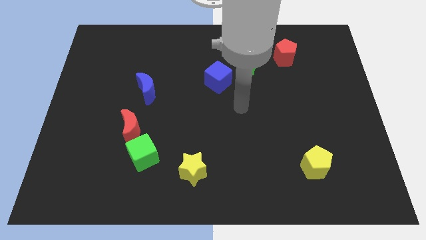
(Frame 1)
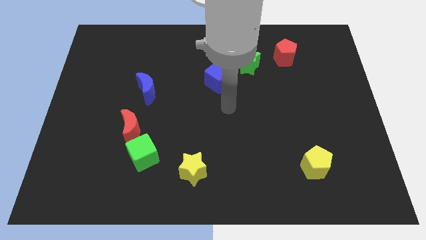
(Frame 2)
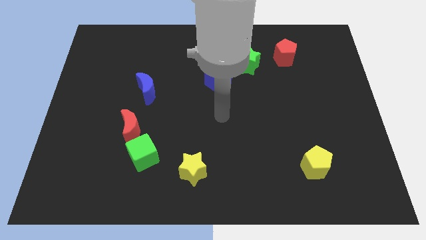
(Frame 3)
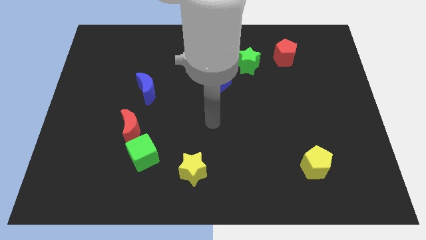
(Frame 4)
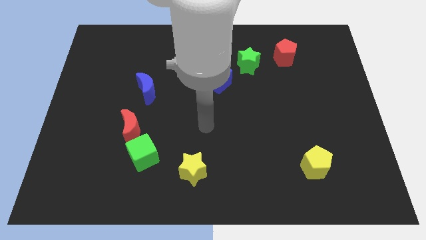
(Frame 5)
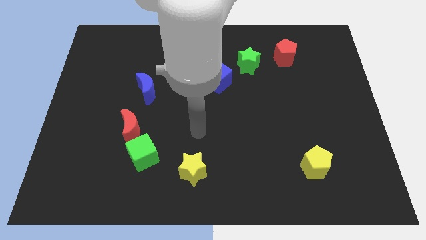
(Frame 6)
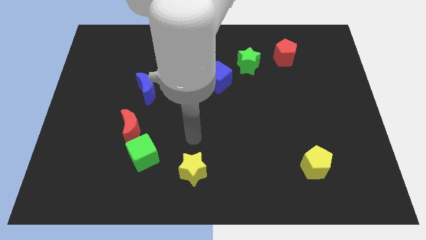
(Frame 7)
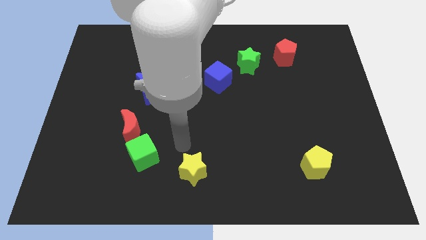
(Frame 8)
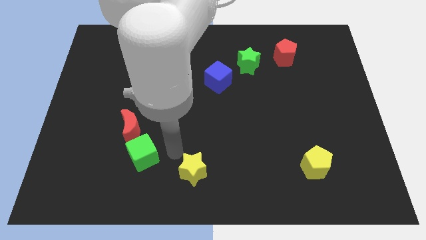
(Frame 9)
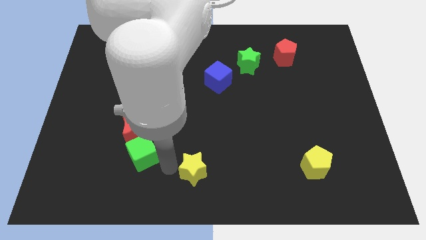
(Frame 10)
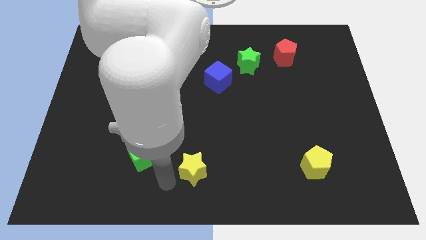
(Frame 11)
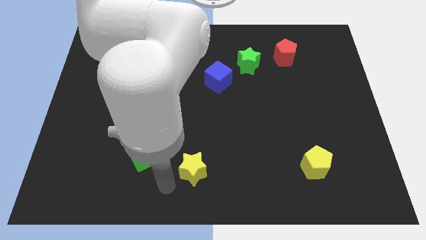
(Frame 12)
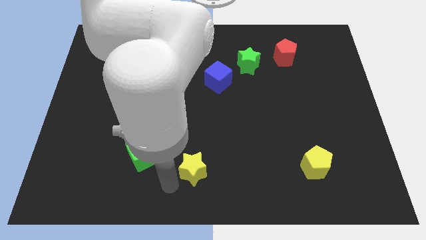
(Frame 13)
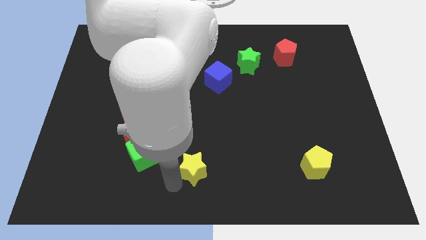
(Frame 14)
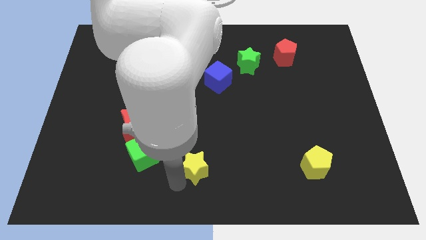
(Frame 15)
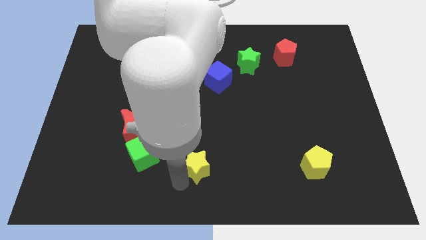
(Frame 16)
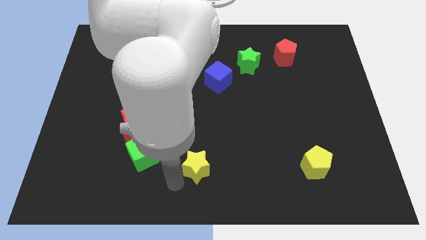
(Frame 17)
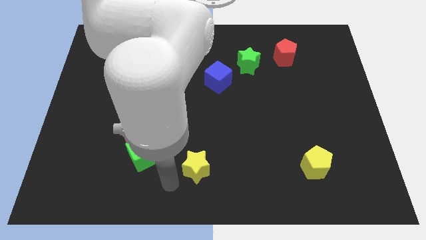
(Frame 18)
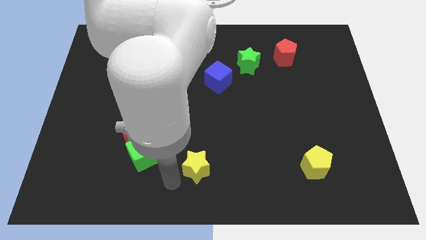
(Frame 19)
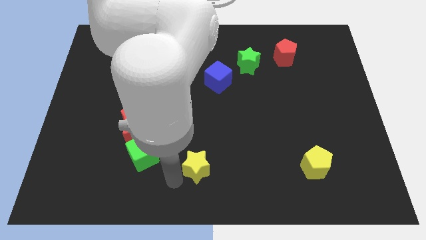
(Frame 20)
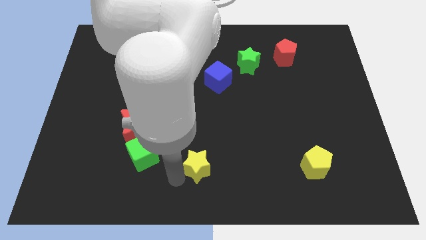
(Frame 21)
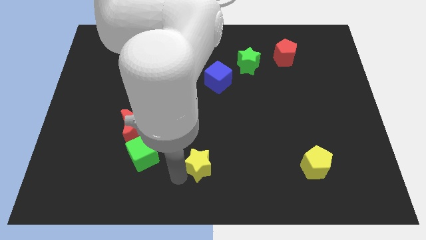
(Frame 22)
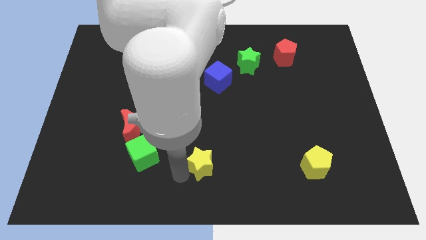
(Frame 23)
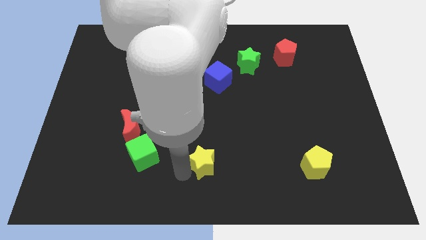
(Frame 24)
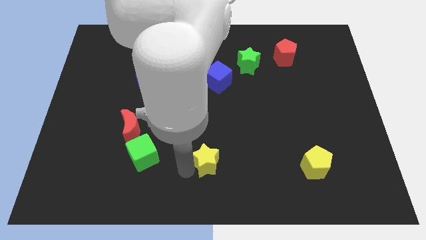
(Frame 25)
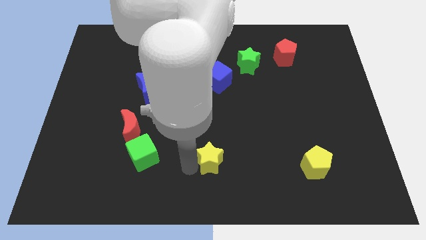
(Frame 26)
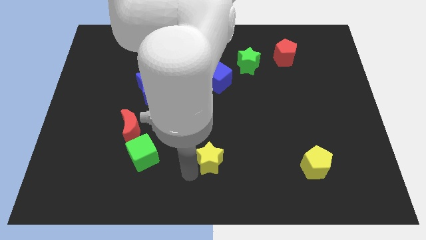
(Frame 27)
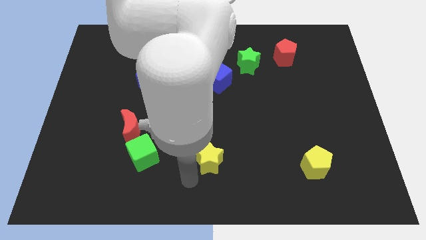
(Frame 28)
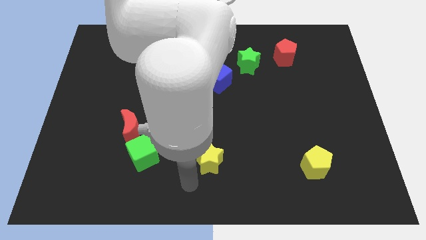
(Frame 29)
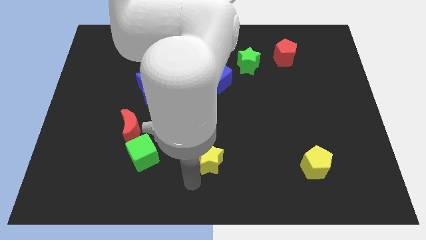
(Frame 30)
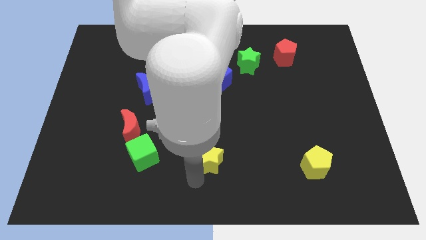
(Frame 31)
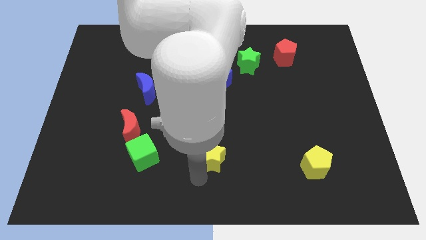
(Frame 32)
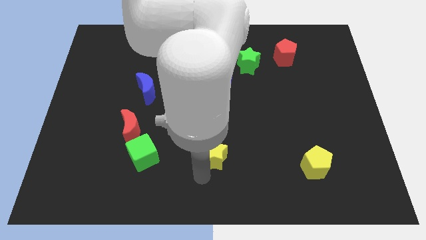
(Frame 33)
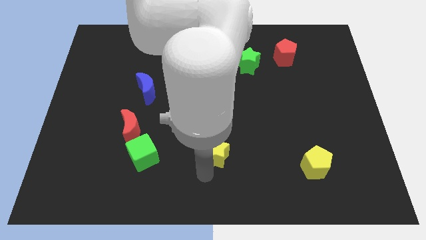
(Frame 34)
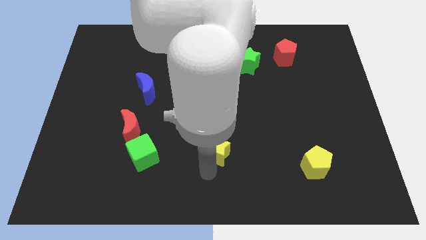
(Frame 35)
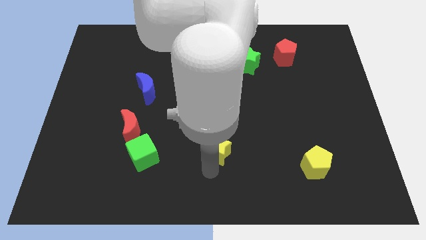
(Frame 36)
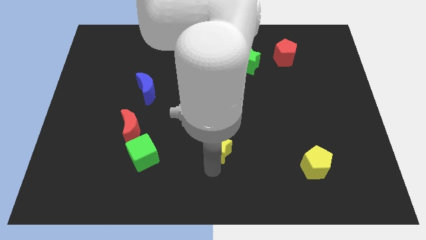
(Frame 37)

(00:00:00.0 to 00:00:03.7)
push the yellow star upwards and then right a little

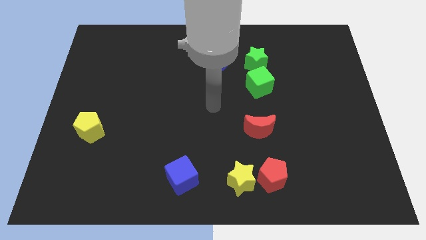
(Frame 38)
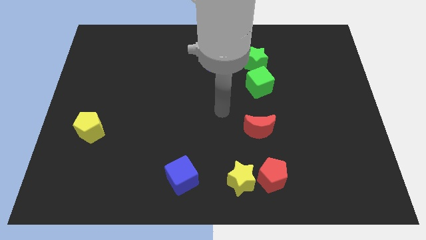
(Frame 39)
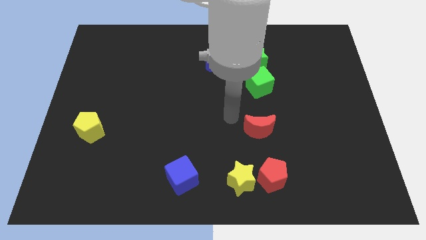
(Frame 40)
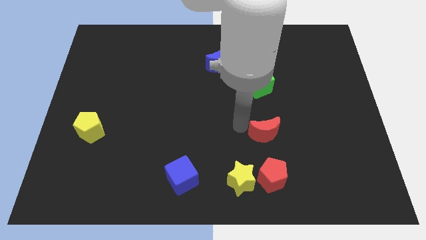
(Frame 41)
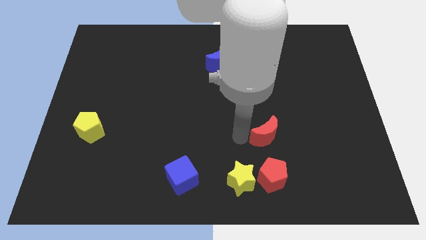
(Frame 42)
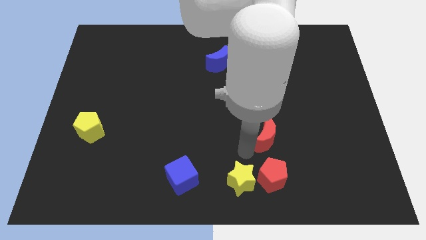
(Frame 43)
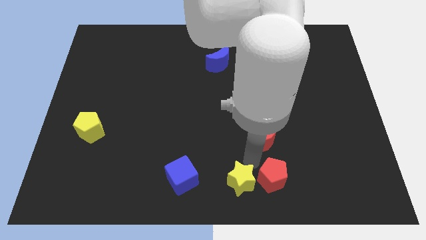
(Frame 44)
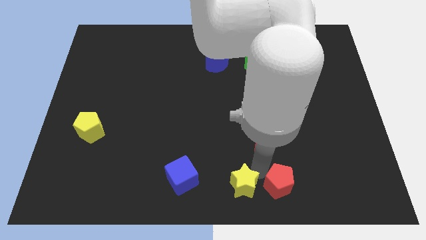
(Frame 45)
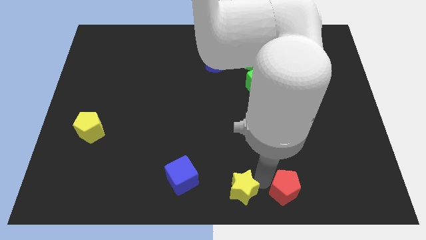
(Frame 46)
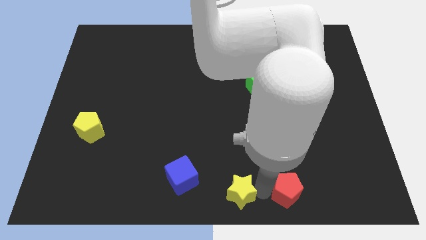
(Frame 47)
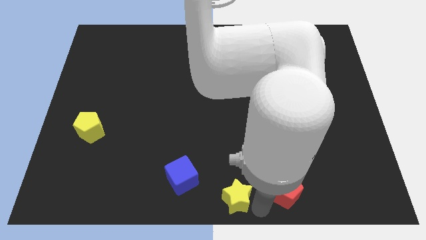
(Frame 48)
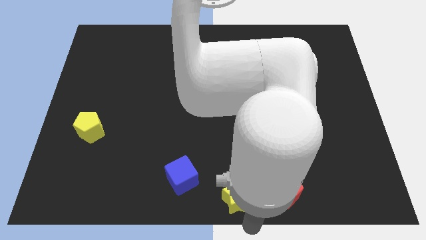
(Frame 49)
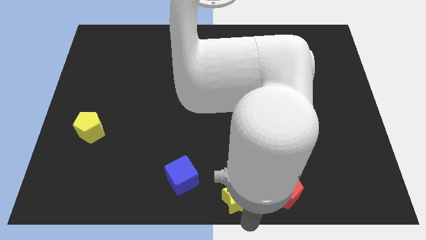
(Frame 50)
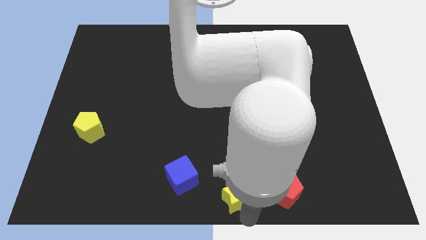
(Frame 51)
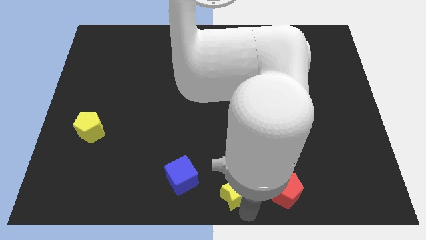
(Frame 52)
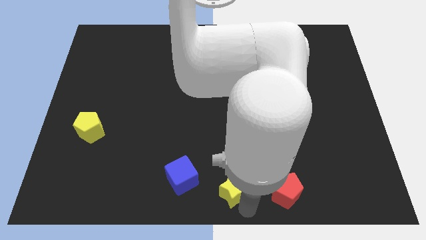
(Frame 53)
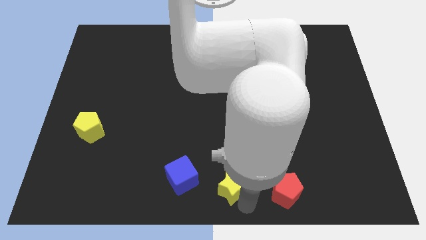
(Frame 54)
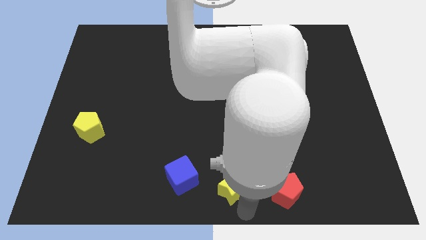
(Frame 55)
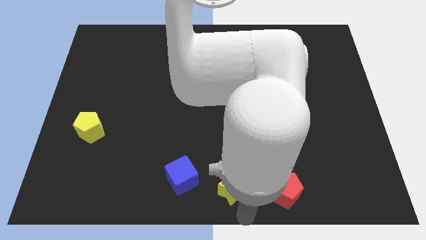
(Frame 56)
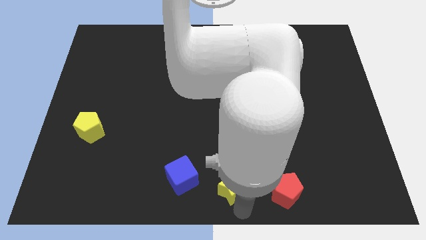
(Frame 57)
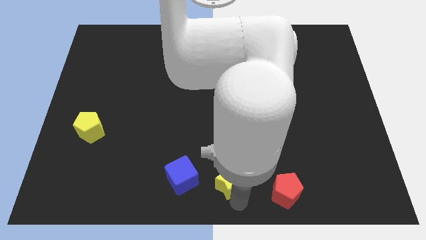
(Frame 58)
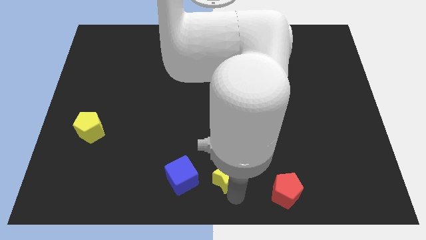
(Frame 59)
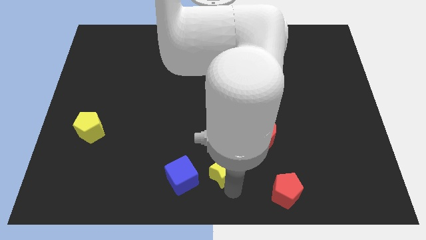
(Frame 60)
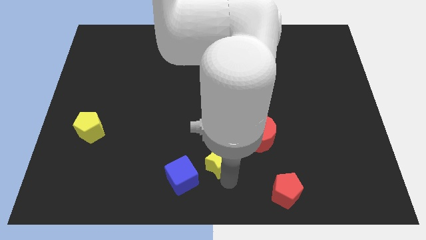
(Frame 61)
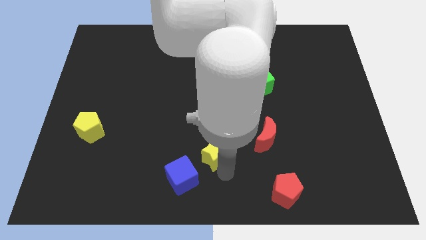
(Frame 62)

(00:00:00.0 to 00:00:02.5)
slightly push the yellow star up and left diagonally

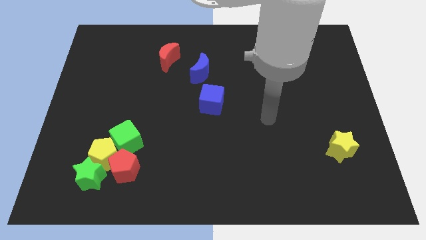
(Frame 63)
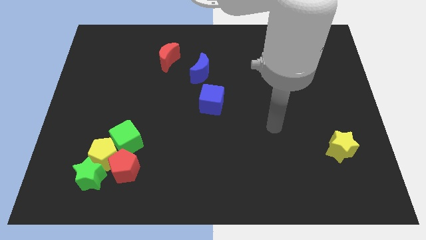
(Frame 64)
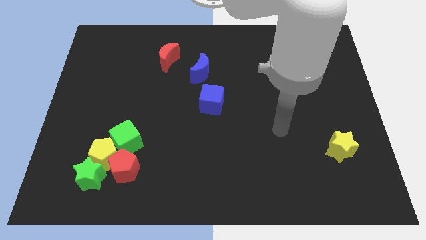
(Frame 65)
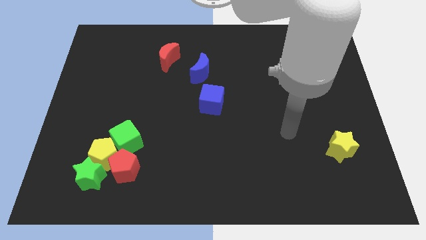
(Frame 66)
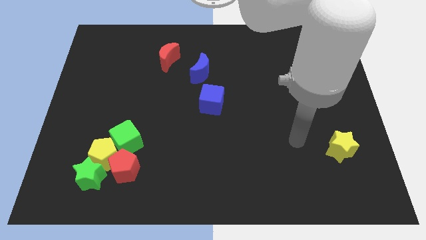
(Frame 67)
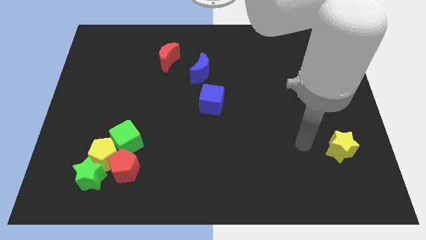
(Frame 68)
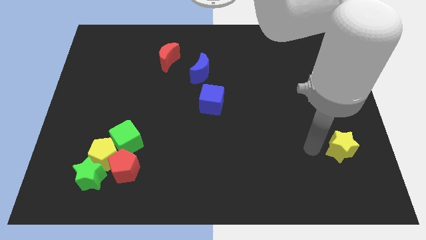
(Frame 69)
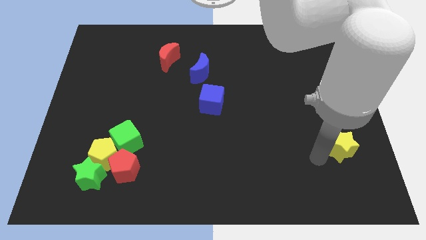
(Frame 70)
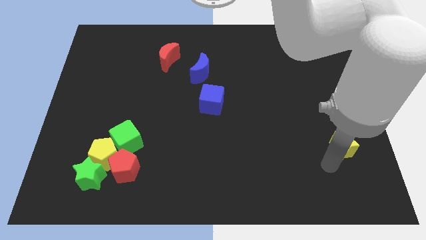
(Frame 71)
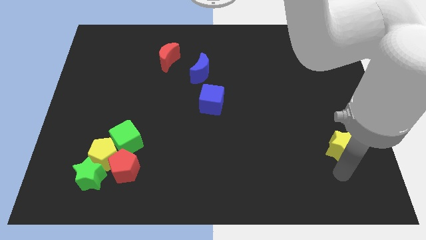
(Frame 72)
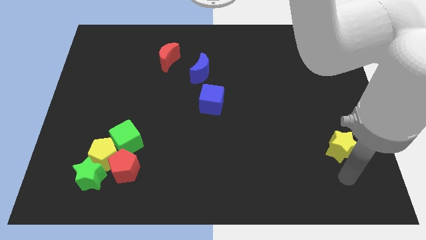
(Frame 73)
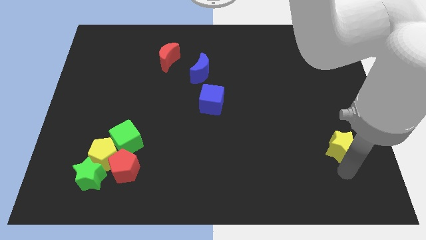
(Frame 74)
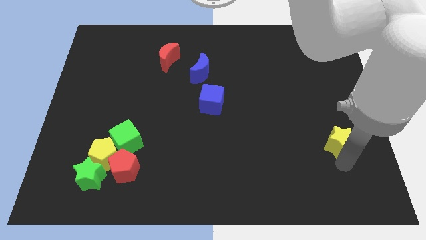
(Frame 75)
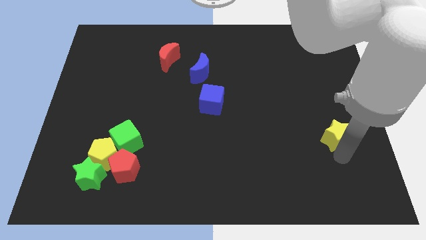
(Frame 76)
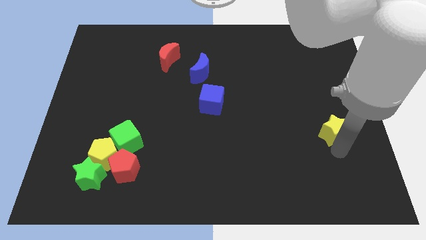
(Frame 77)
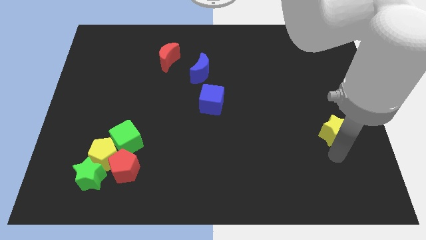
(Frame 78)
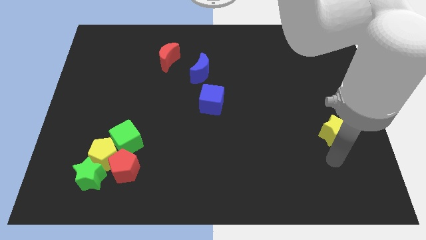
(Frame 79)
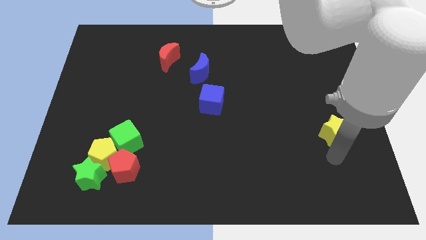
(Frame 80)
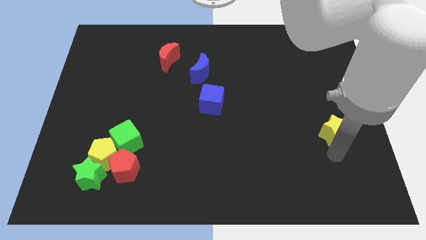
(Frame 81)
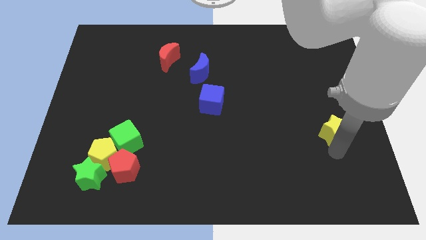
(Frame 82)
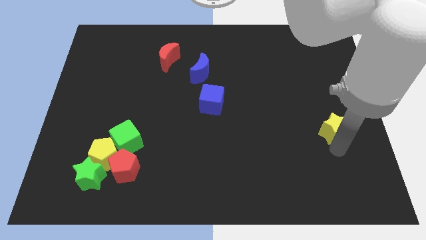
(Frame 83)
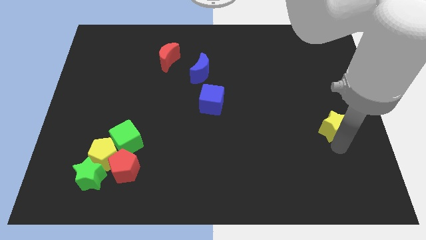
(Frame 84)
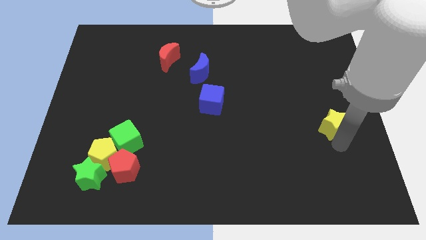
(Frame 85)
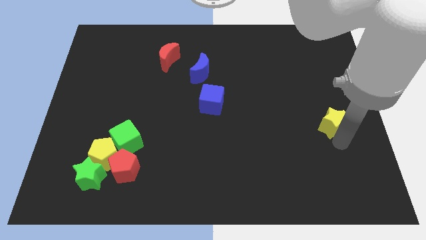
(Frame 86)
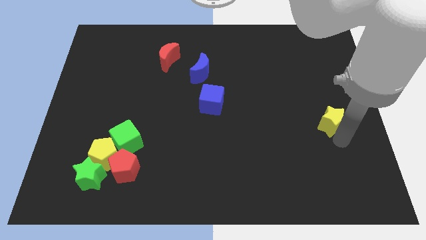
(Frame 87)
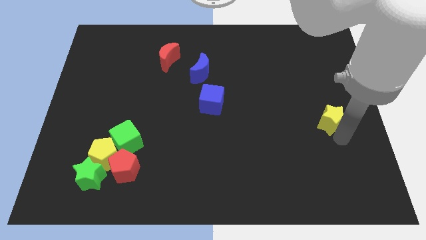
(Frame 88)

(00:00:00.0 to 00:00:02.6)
slightly push the yellow star upwards

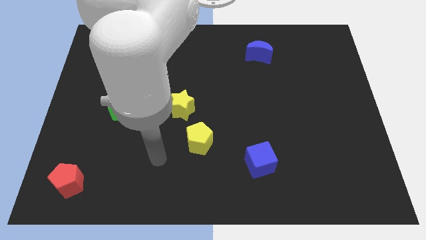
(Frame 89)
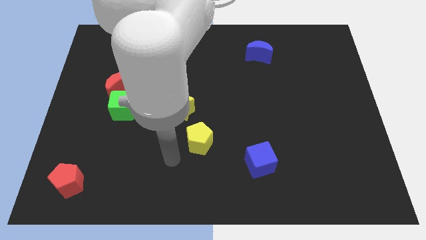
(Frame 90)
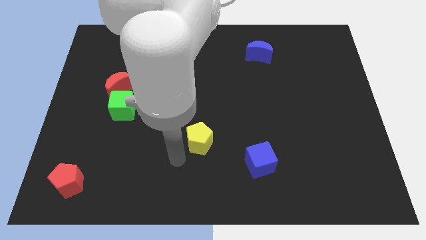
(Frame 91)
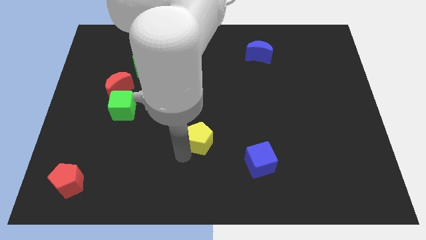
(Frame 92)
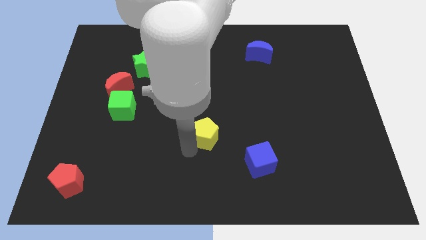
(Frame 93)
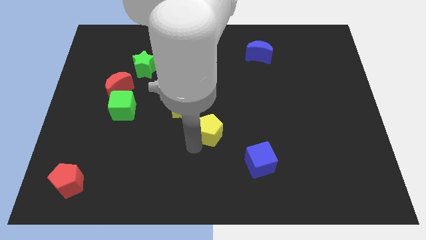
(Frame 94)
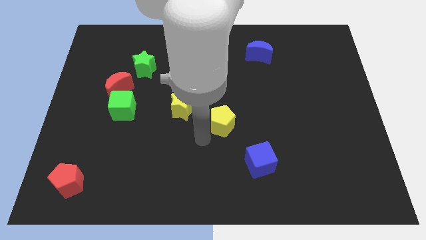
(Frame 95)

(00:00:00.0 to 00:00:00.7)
slide the yellow pentagon somewhat up and then to the right
